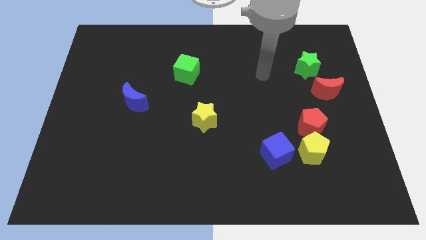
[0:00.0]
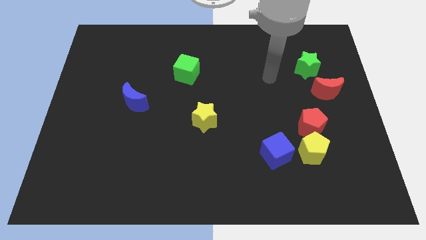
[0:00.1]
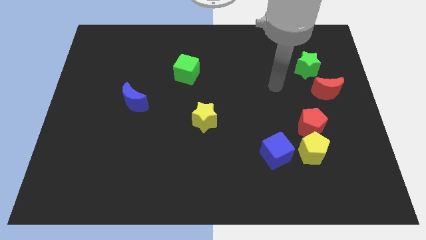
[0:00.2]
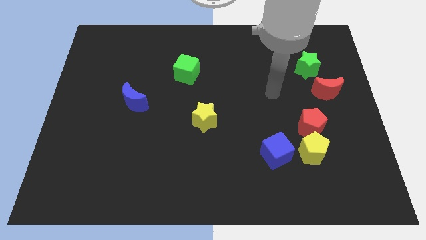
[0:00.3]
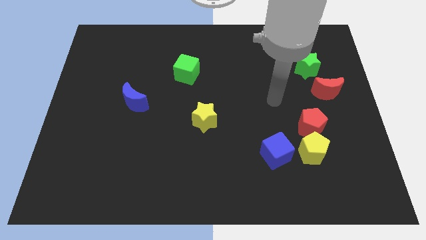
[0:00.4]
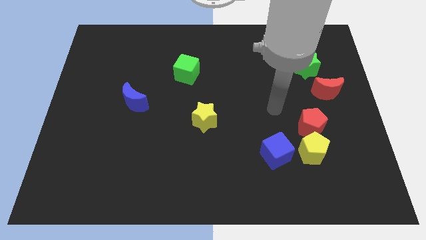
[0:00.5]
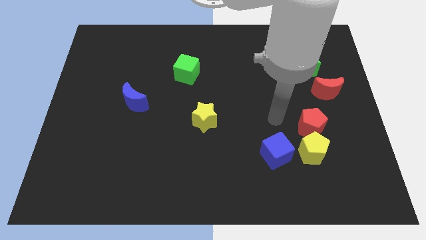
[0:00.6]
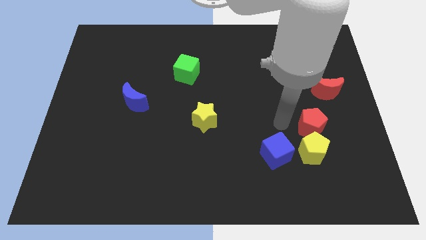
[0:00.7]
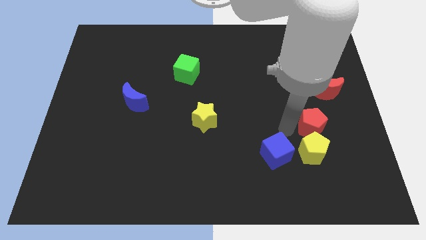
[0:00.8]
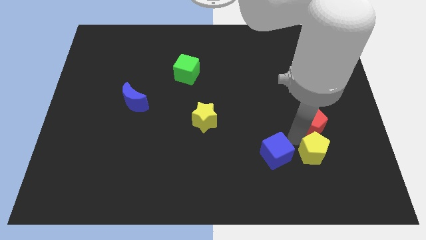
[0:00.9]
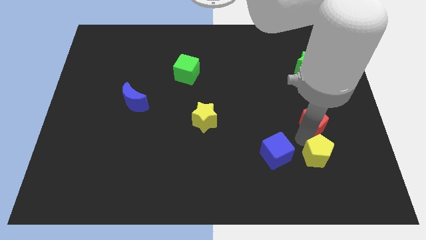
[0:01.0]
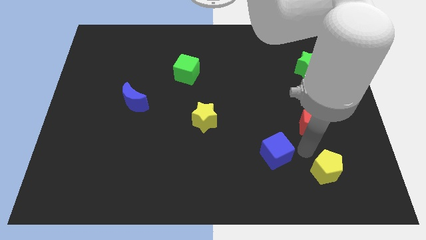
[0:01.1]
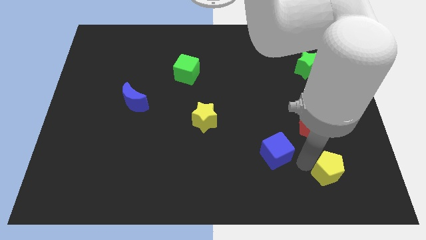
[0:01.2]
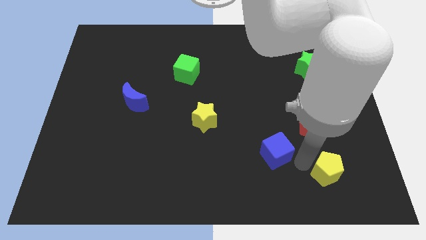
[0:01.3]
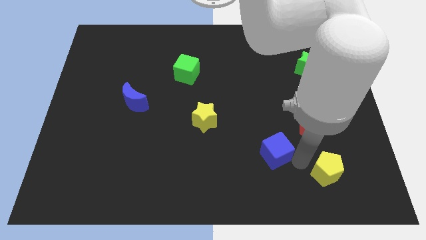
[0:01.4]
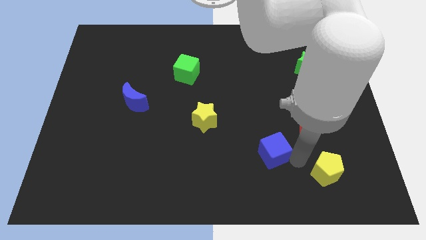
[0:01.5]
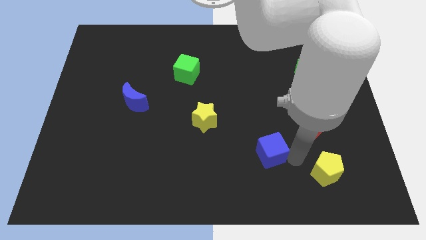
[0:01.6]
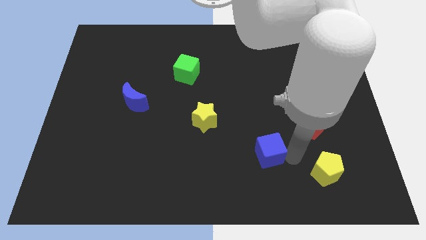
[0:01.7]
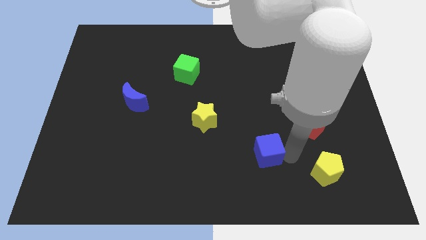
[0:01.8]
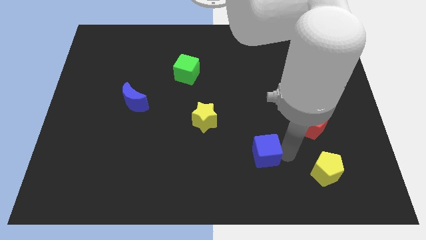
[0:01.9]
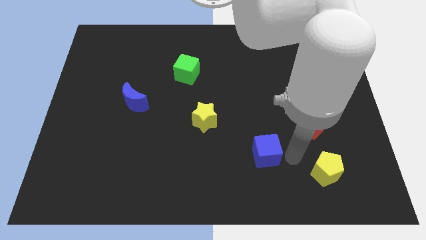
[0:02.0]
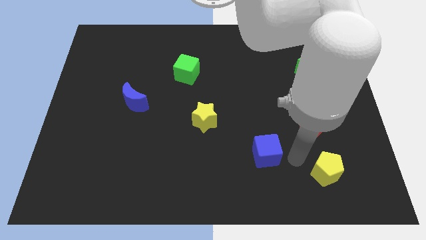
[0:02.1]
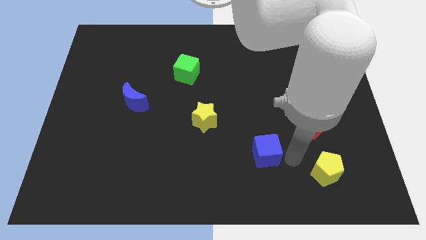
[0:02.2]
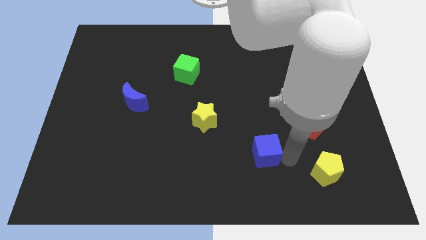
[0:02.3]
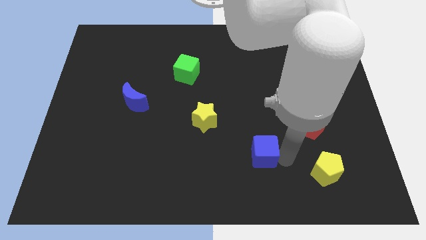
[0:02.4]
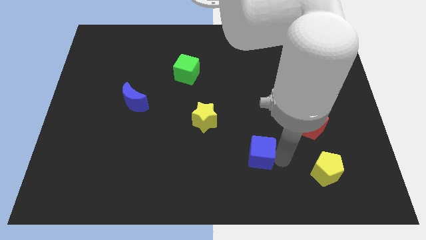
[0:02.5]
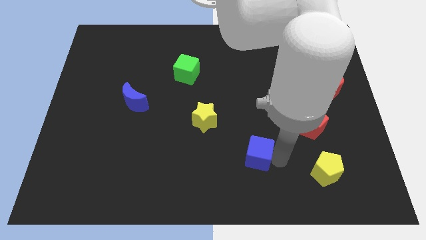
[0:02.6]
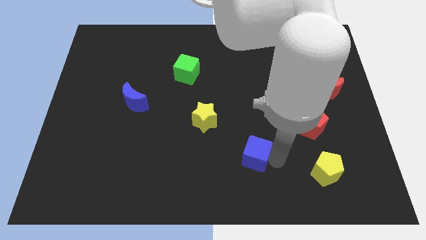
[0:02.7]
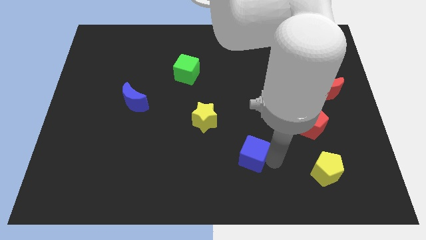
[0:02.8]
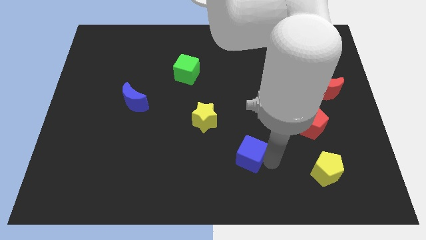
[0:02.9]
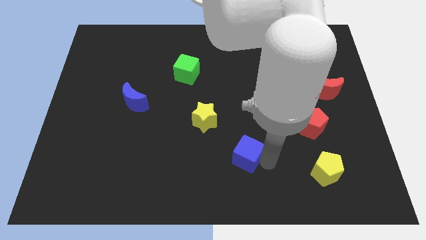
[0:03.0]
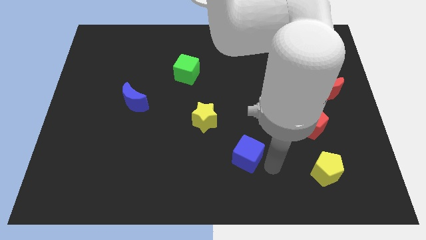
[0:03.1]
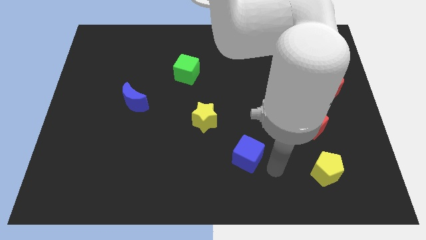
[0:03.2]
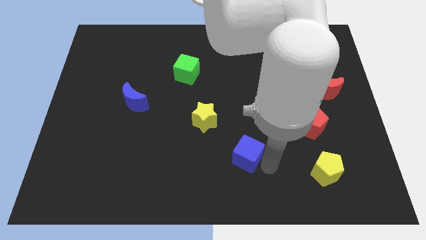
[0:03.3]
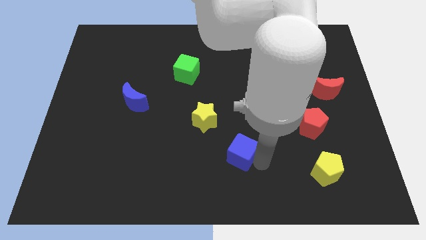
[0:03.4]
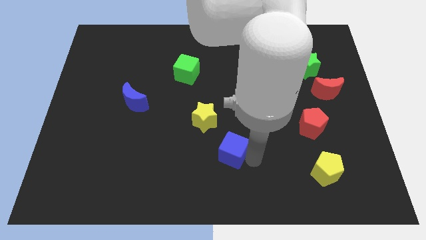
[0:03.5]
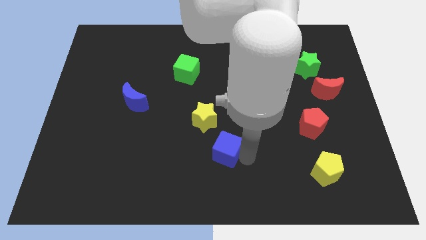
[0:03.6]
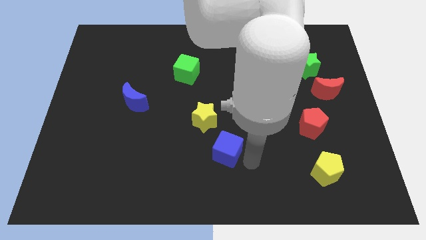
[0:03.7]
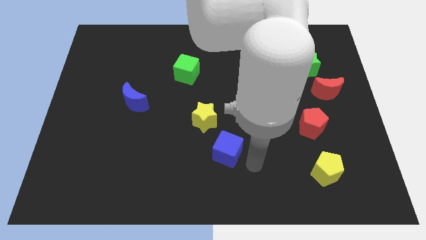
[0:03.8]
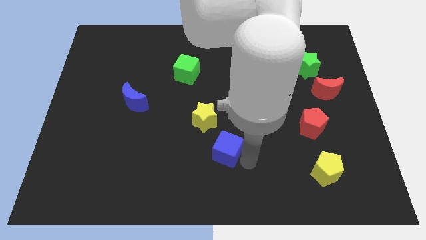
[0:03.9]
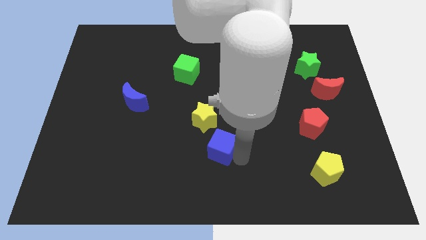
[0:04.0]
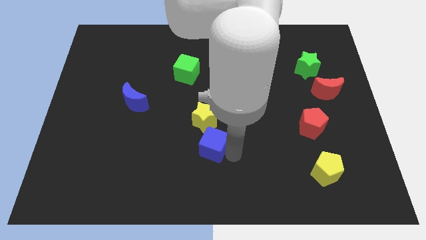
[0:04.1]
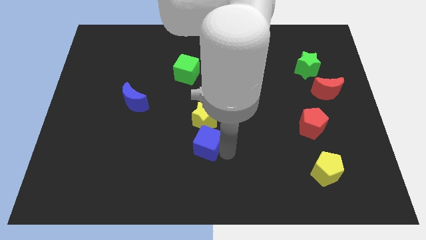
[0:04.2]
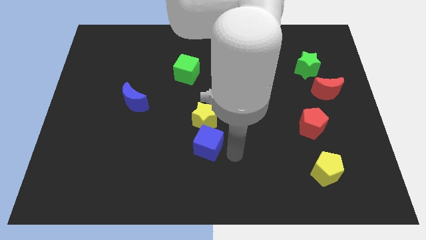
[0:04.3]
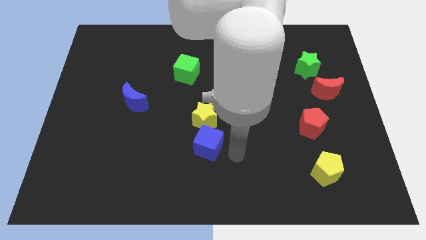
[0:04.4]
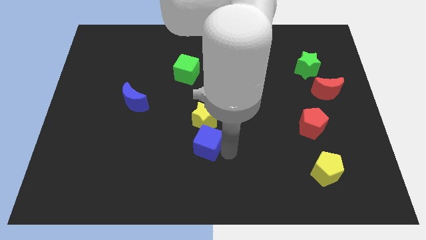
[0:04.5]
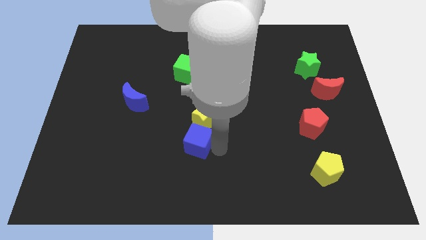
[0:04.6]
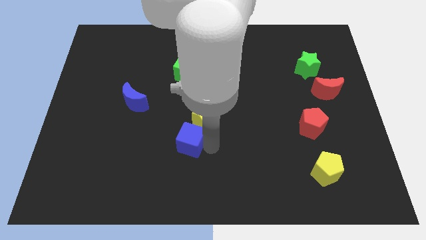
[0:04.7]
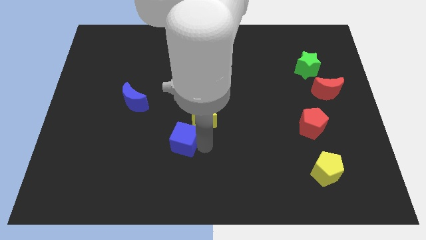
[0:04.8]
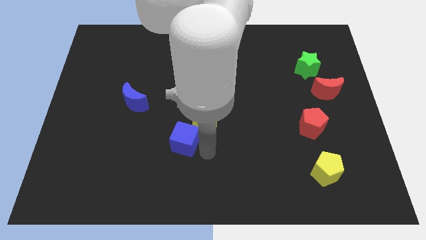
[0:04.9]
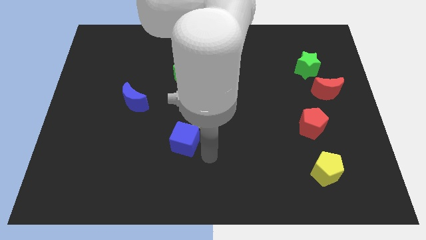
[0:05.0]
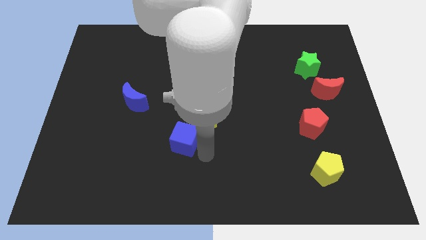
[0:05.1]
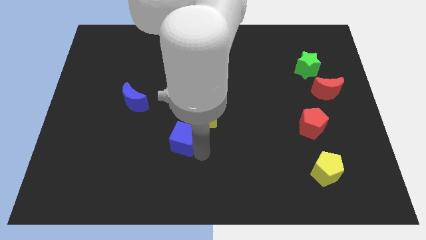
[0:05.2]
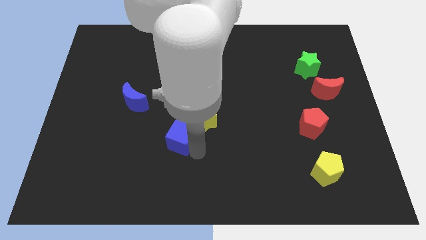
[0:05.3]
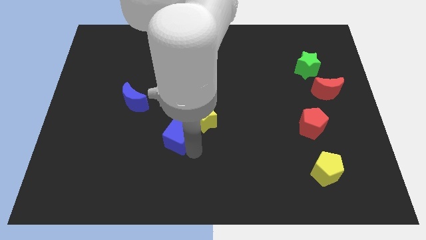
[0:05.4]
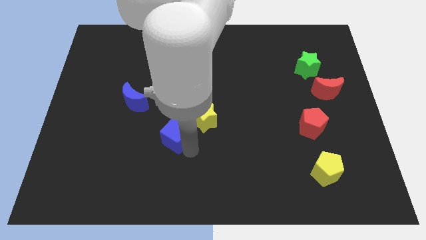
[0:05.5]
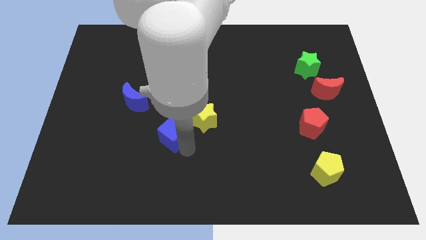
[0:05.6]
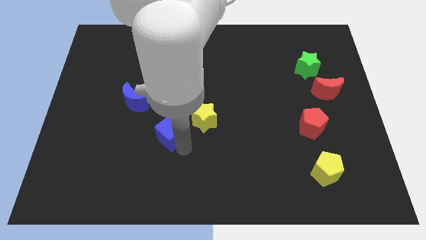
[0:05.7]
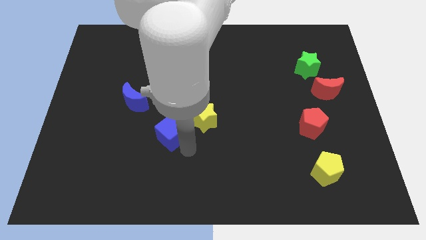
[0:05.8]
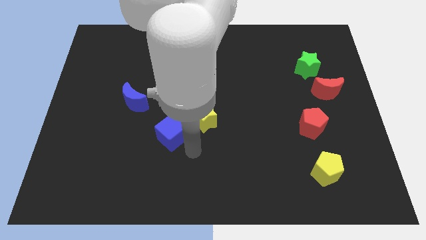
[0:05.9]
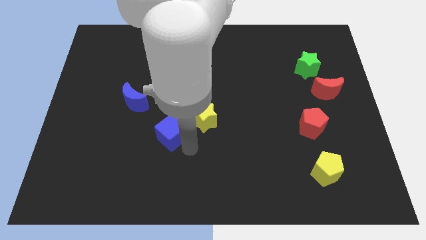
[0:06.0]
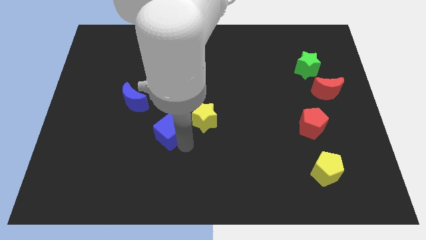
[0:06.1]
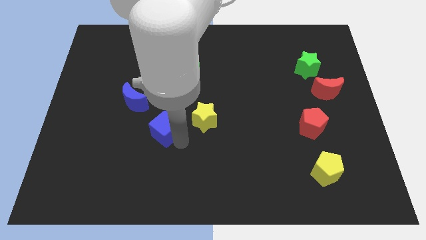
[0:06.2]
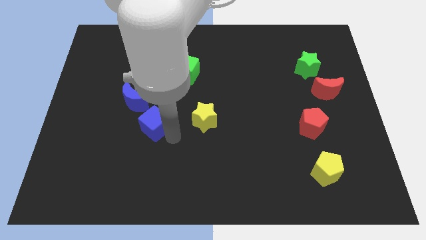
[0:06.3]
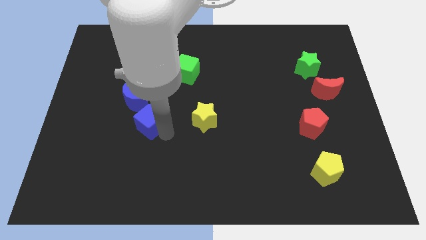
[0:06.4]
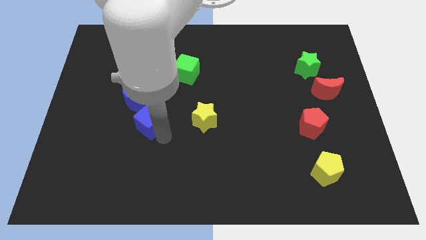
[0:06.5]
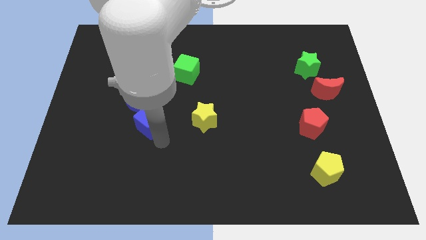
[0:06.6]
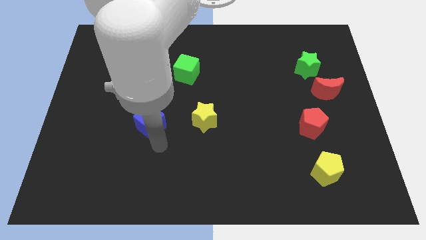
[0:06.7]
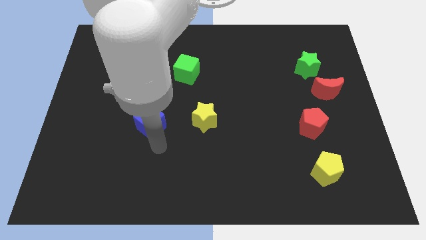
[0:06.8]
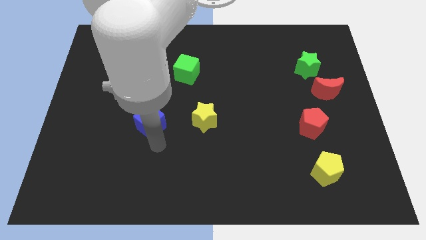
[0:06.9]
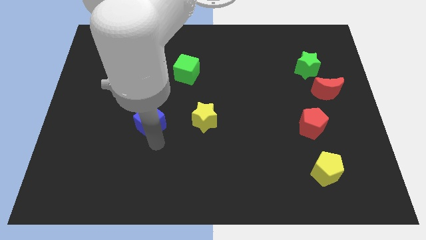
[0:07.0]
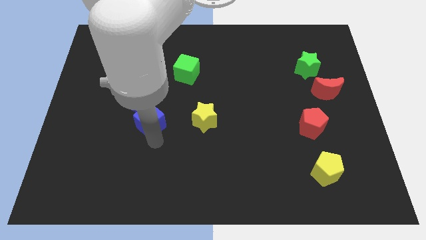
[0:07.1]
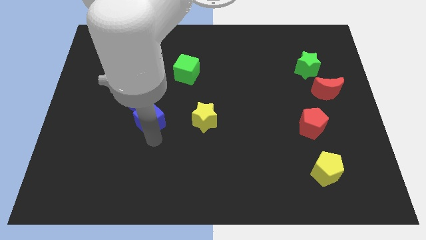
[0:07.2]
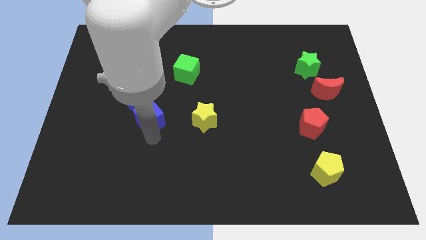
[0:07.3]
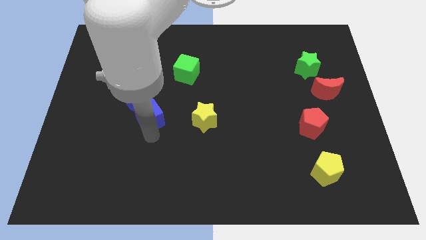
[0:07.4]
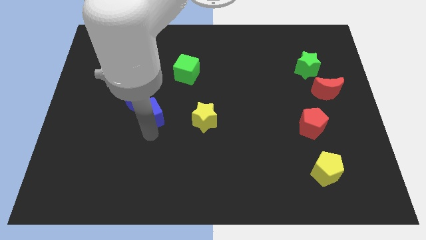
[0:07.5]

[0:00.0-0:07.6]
push the blue cube towards the blue moon
